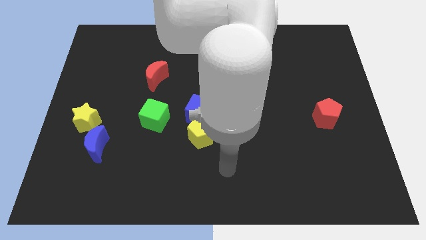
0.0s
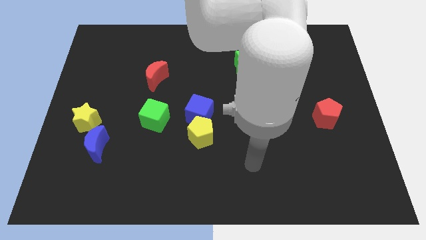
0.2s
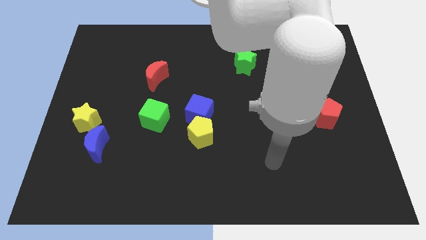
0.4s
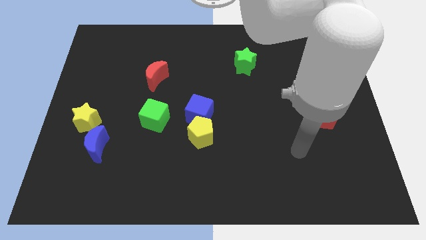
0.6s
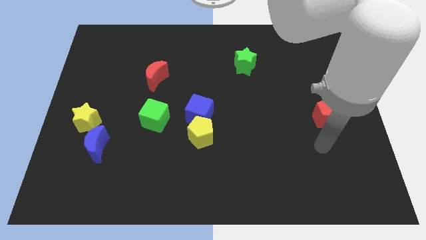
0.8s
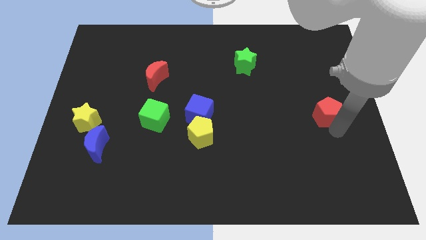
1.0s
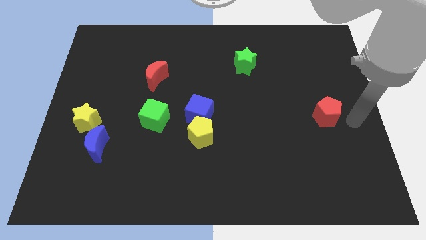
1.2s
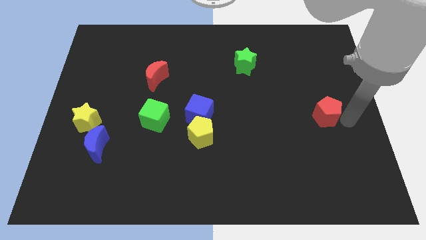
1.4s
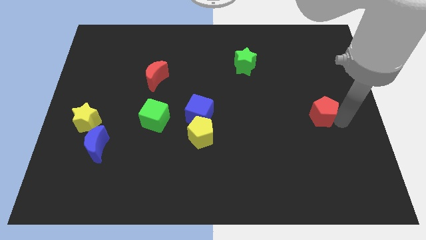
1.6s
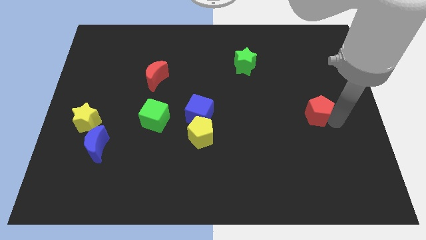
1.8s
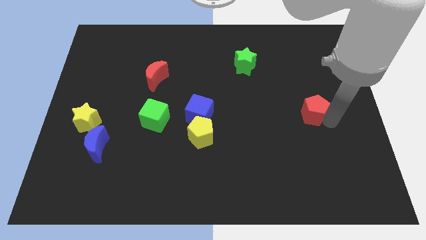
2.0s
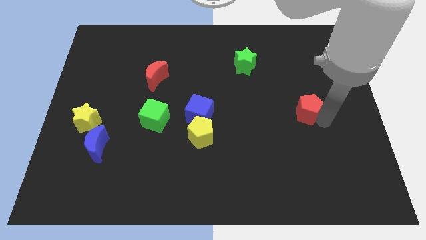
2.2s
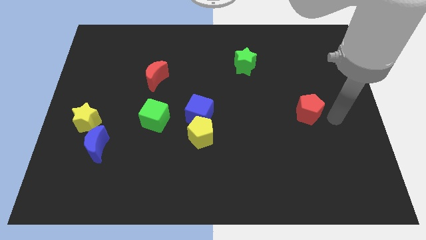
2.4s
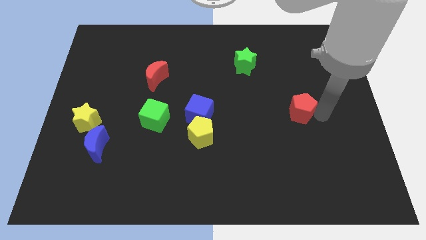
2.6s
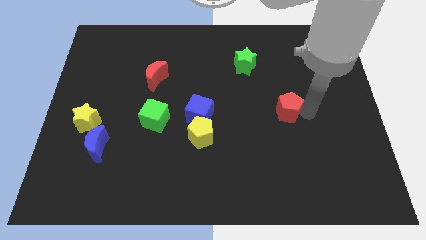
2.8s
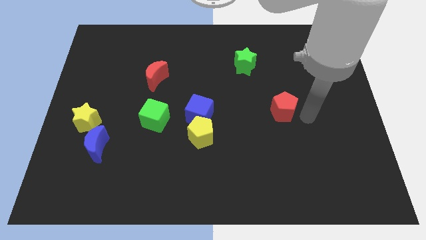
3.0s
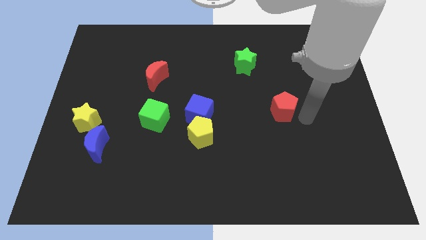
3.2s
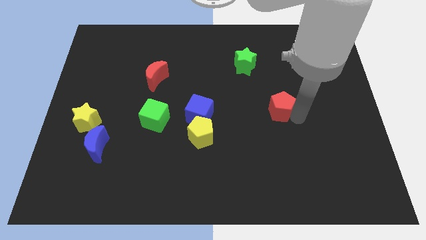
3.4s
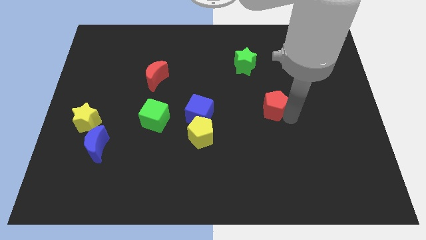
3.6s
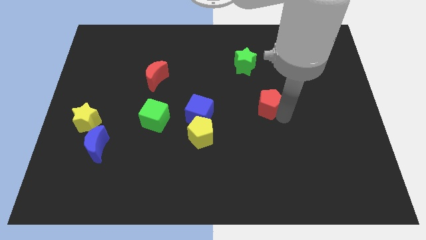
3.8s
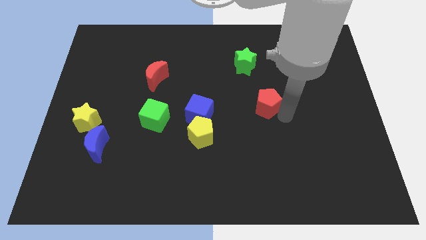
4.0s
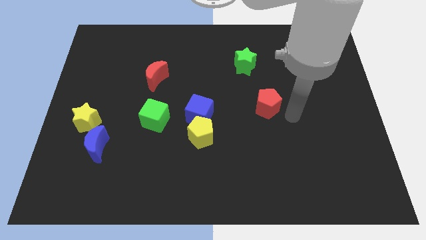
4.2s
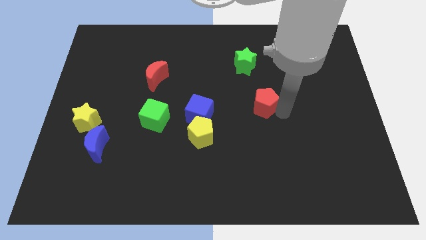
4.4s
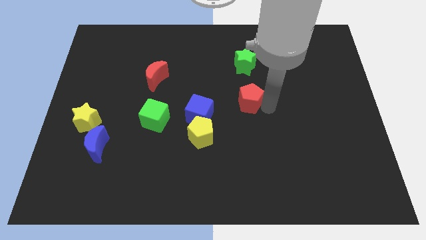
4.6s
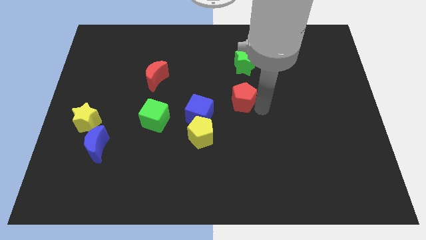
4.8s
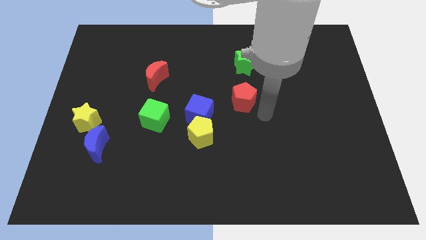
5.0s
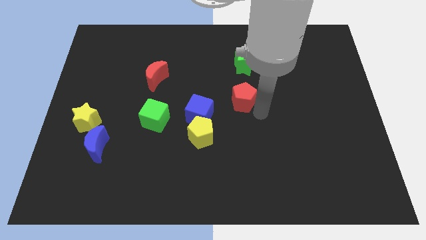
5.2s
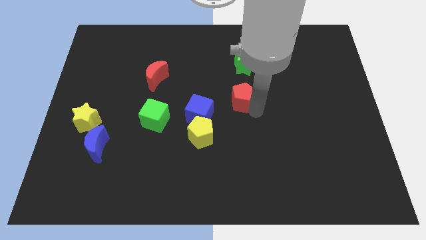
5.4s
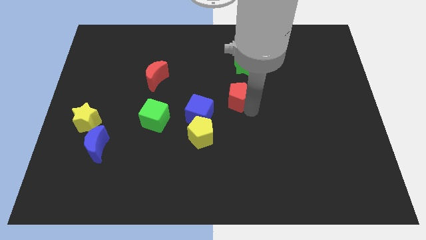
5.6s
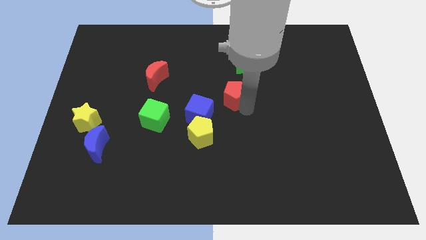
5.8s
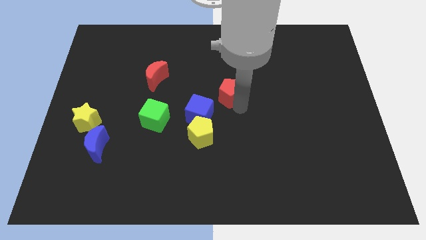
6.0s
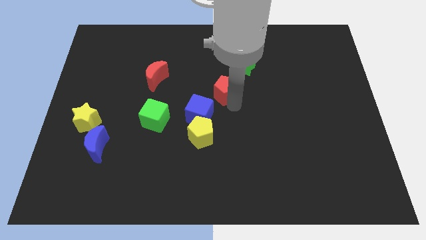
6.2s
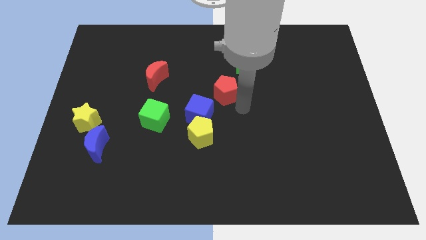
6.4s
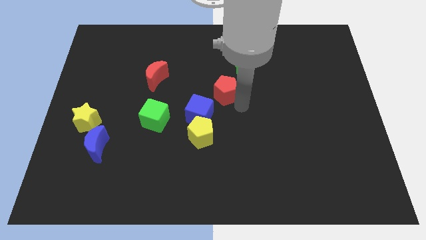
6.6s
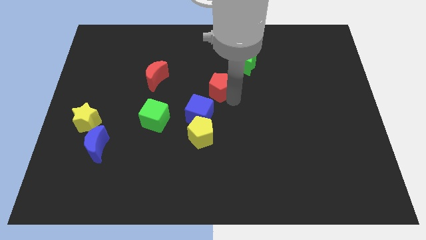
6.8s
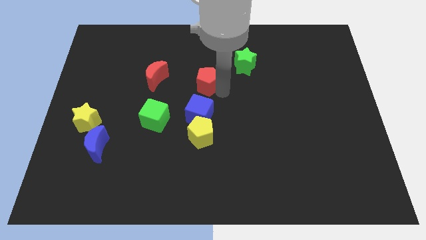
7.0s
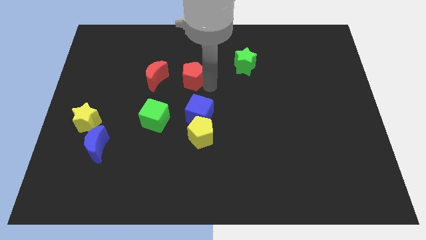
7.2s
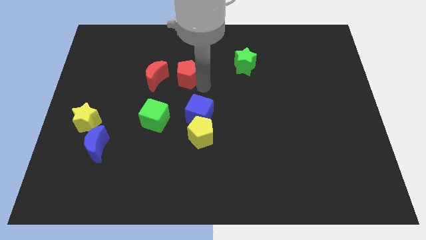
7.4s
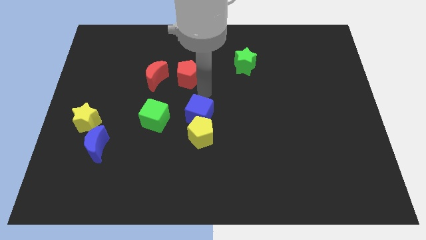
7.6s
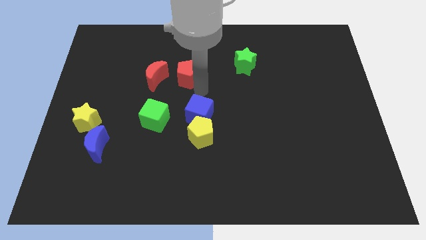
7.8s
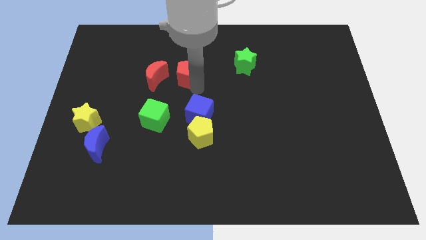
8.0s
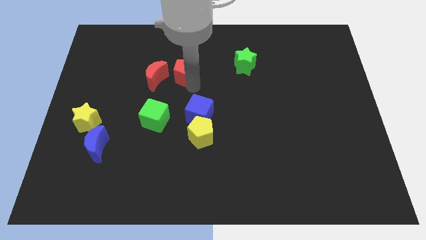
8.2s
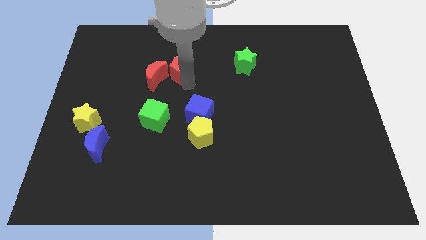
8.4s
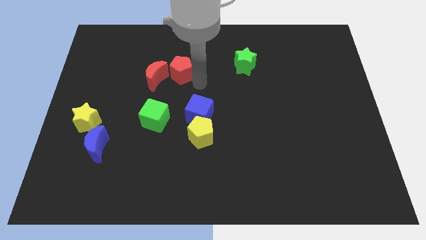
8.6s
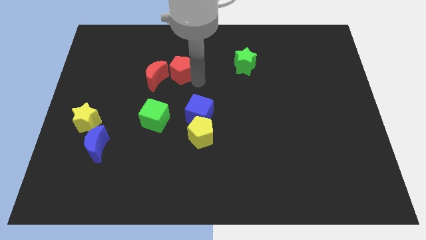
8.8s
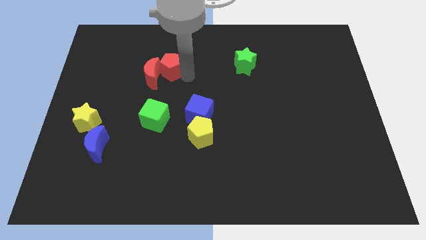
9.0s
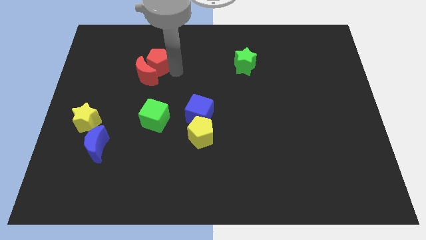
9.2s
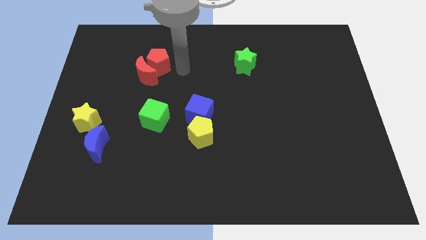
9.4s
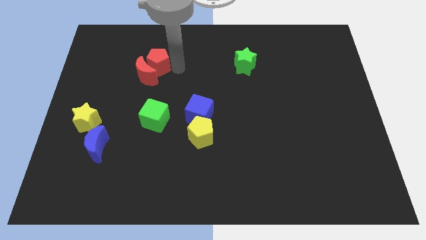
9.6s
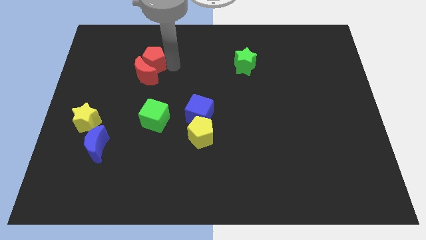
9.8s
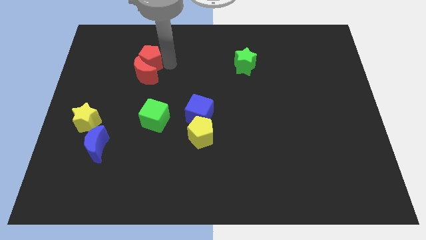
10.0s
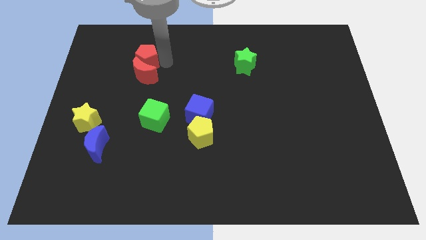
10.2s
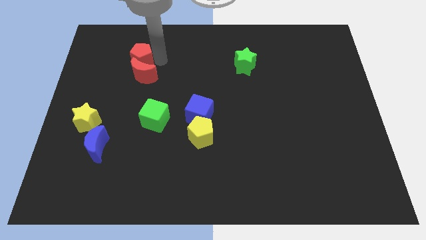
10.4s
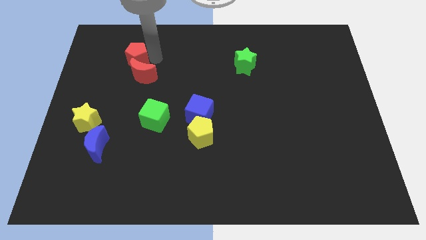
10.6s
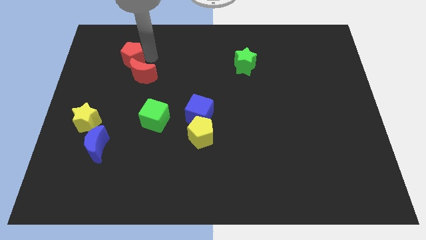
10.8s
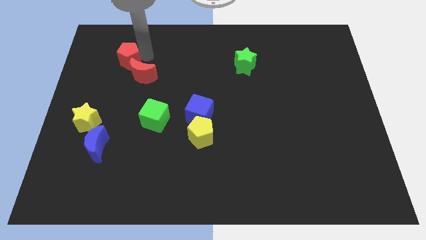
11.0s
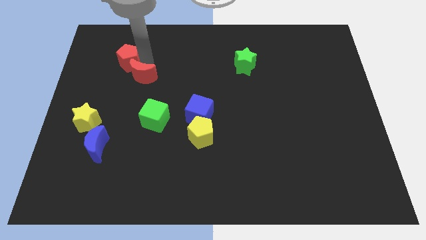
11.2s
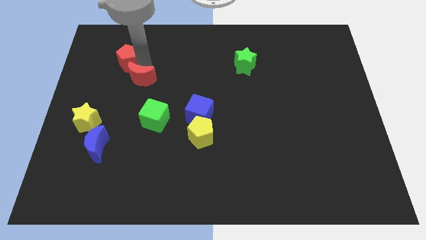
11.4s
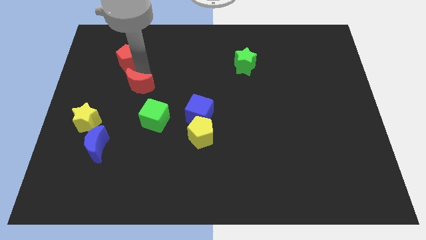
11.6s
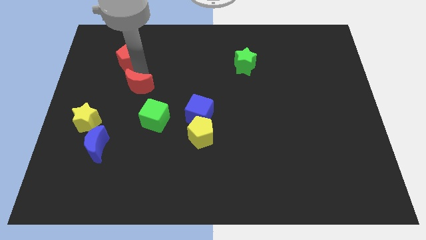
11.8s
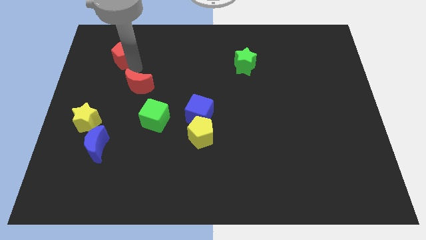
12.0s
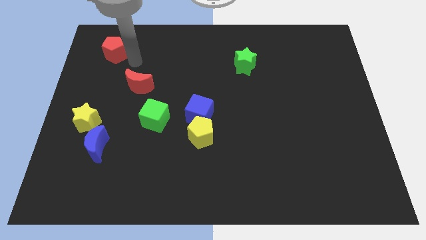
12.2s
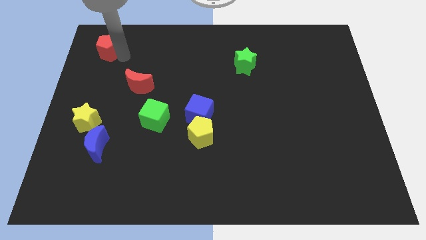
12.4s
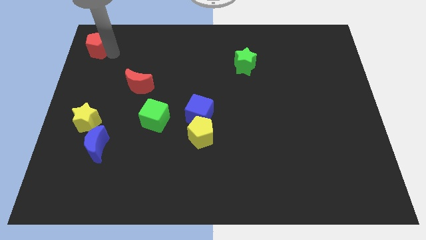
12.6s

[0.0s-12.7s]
push the red pentagon to the top left
